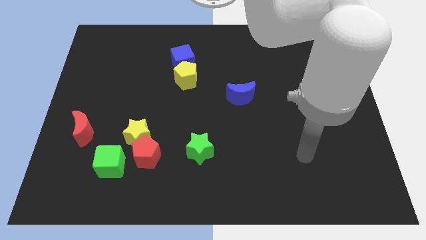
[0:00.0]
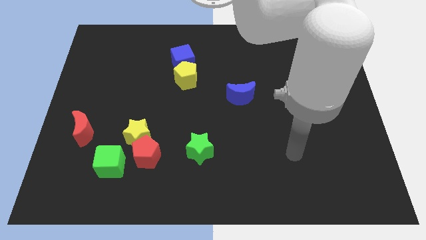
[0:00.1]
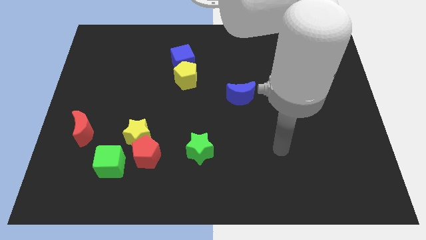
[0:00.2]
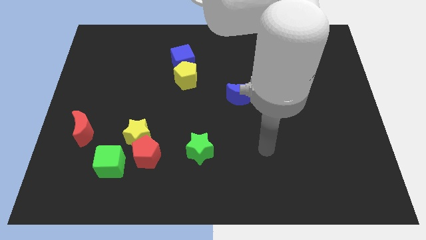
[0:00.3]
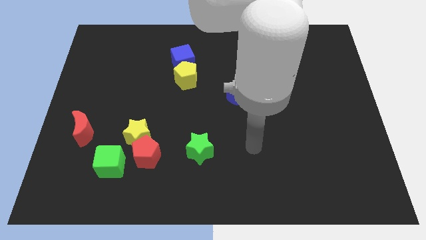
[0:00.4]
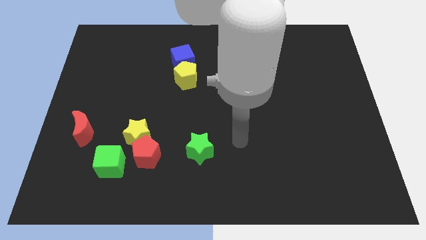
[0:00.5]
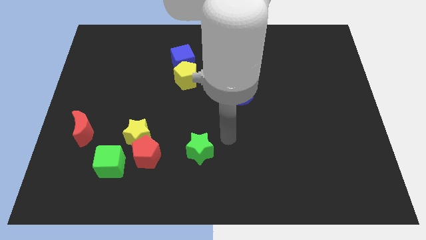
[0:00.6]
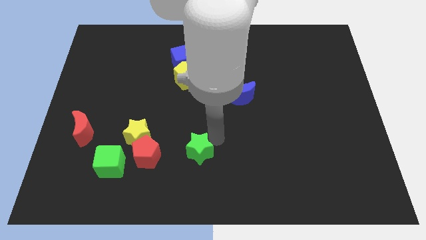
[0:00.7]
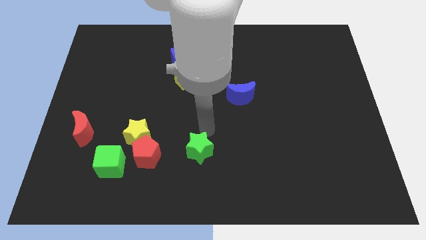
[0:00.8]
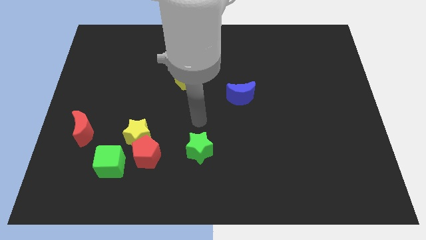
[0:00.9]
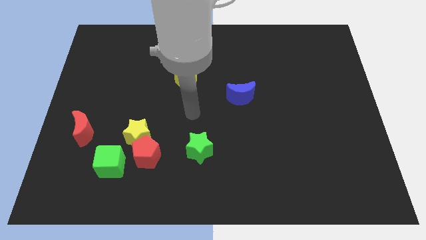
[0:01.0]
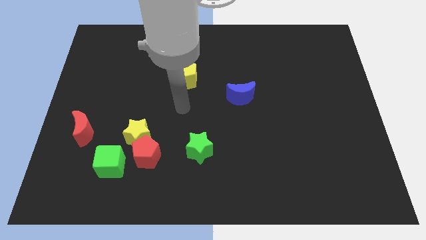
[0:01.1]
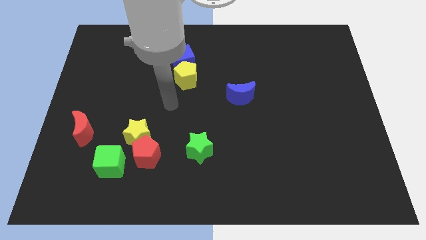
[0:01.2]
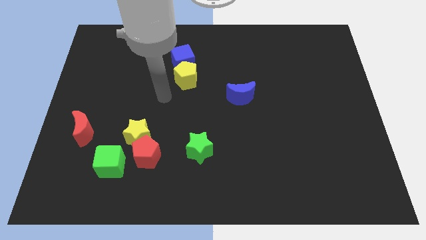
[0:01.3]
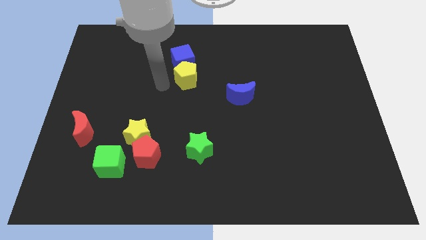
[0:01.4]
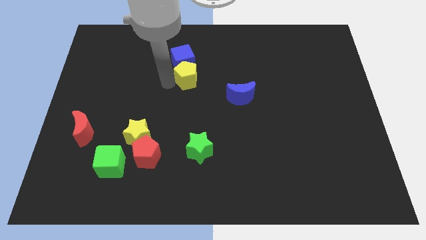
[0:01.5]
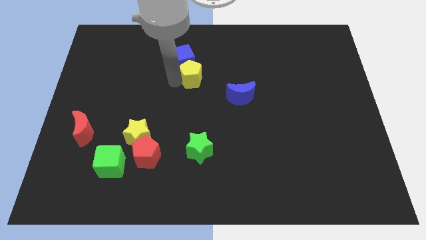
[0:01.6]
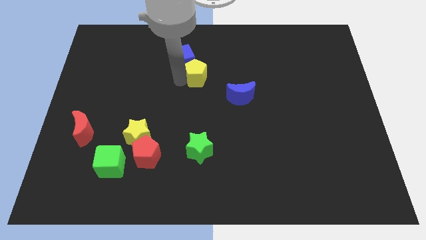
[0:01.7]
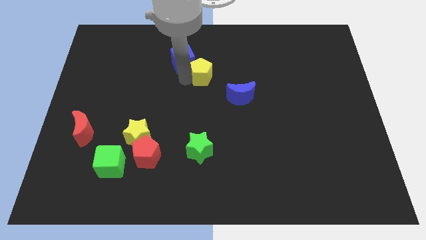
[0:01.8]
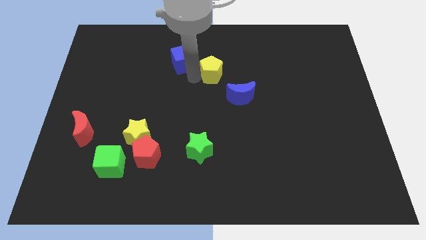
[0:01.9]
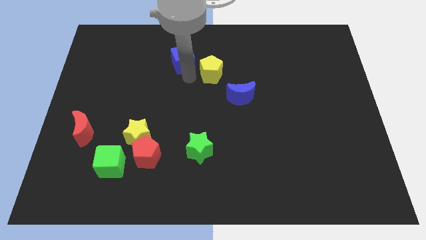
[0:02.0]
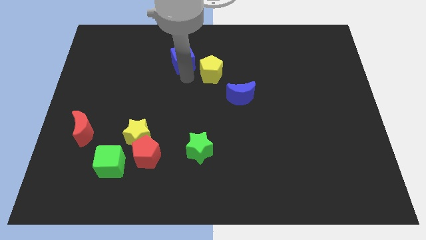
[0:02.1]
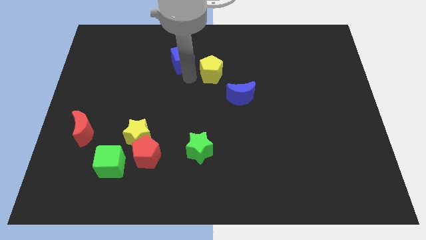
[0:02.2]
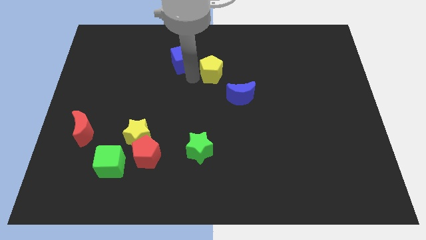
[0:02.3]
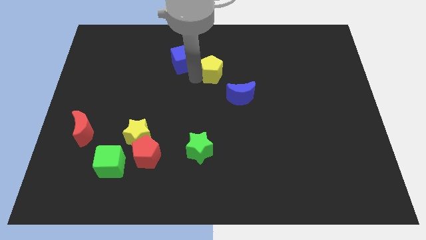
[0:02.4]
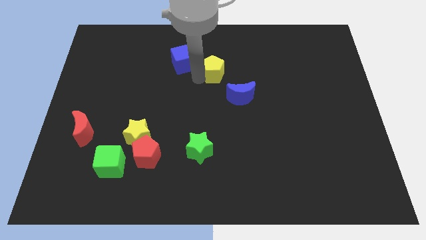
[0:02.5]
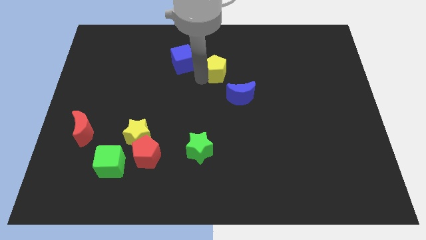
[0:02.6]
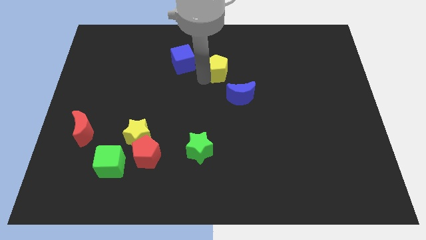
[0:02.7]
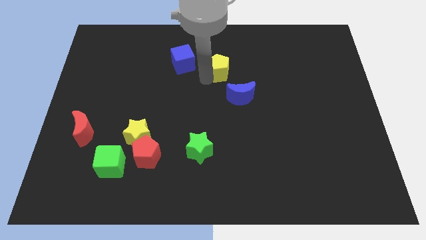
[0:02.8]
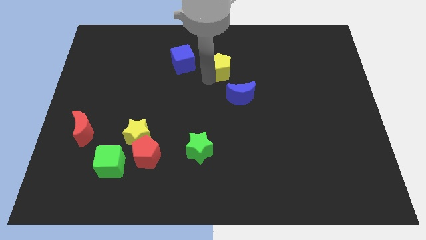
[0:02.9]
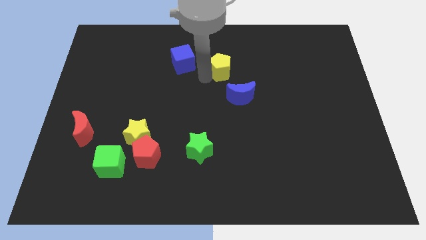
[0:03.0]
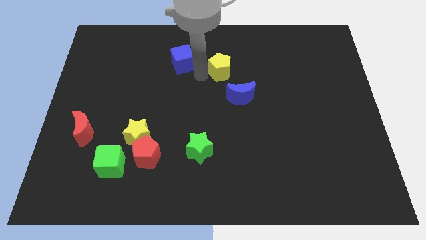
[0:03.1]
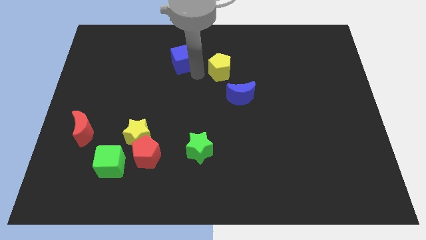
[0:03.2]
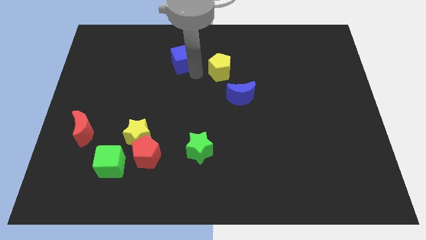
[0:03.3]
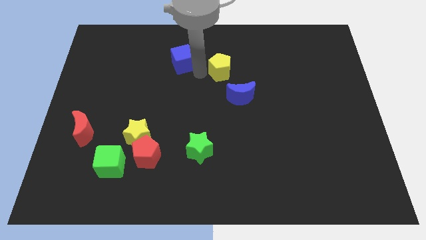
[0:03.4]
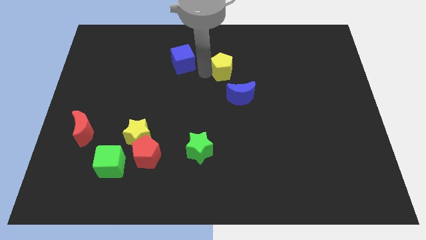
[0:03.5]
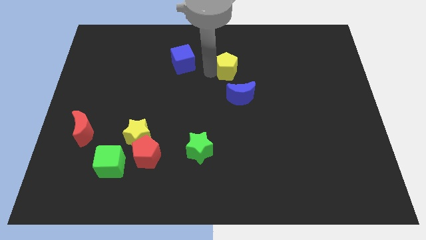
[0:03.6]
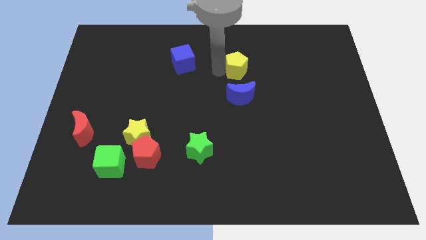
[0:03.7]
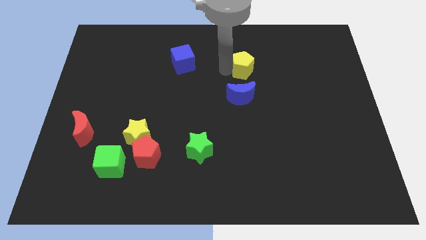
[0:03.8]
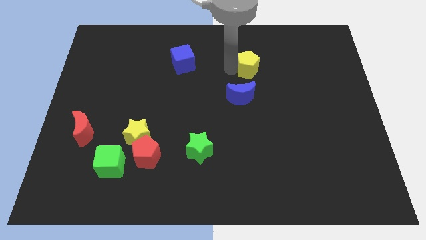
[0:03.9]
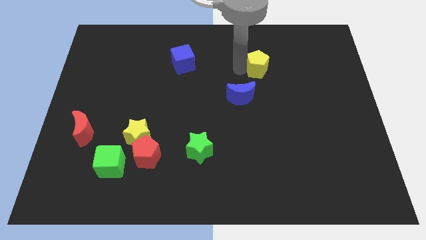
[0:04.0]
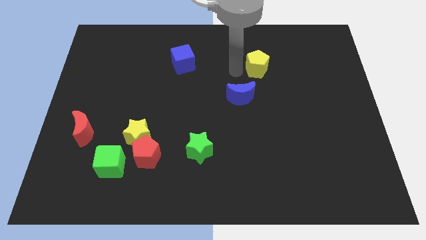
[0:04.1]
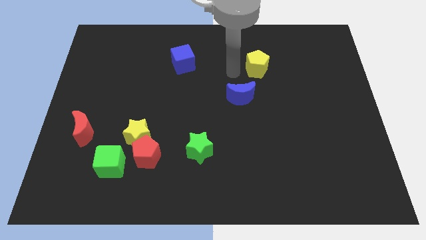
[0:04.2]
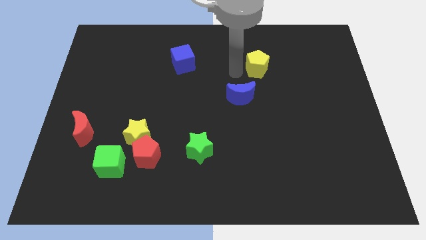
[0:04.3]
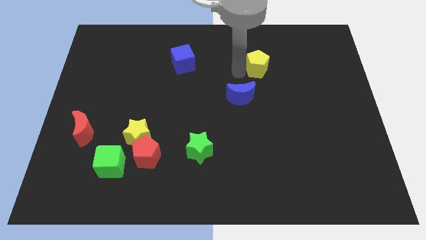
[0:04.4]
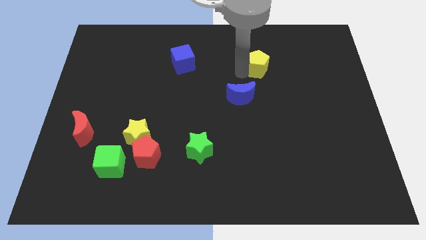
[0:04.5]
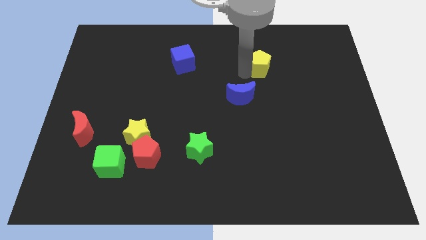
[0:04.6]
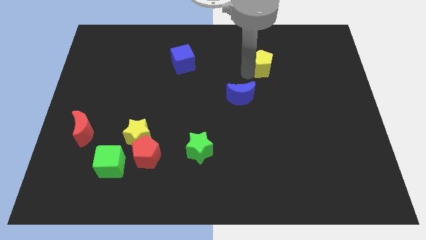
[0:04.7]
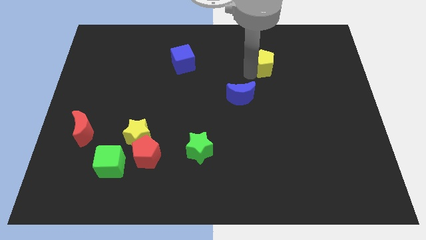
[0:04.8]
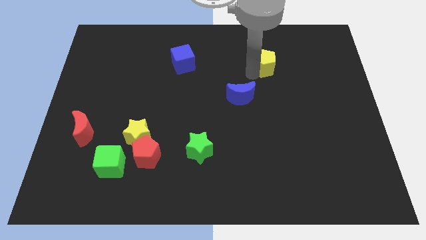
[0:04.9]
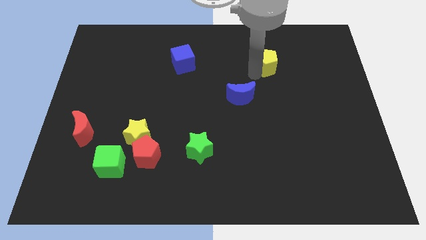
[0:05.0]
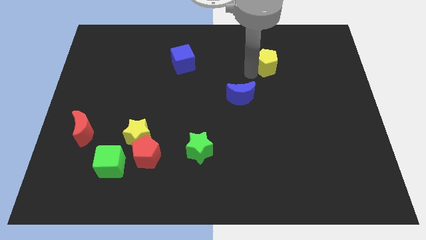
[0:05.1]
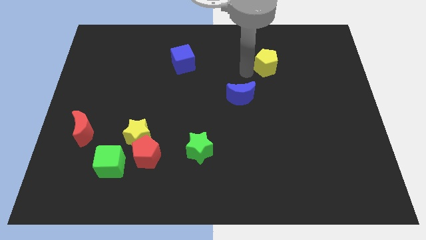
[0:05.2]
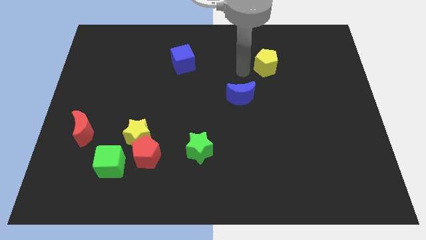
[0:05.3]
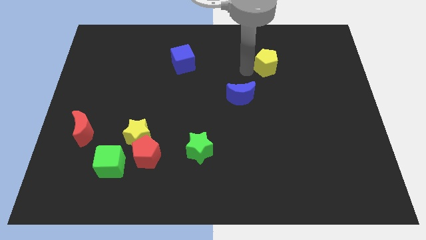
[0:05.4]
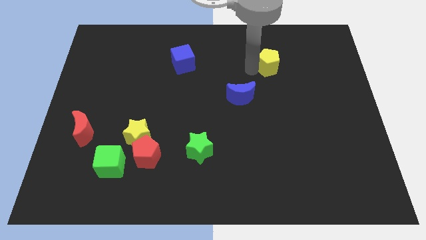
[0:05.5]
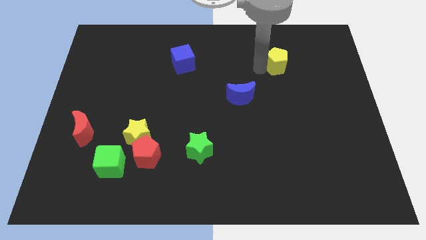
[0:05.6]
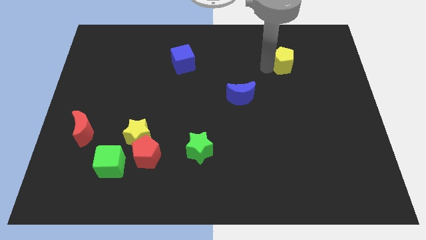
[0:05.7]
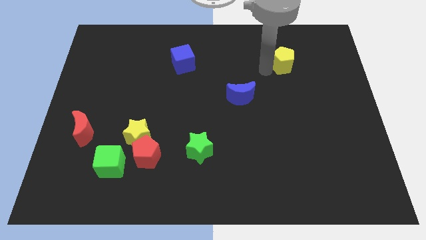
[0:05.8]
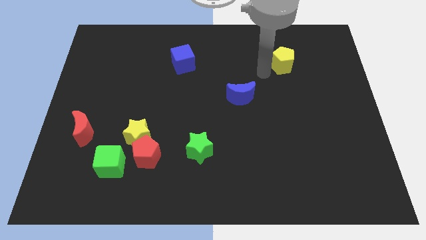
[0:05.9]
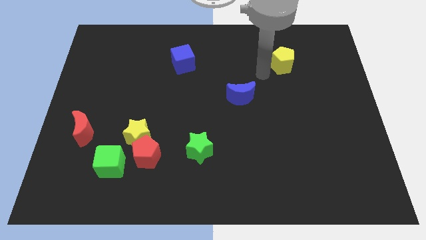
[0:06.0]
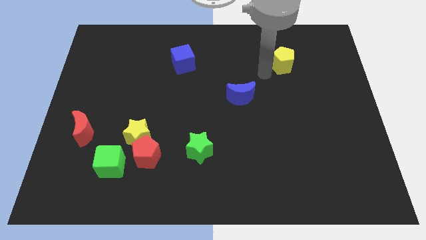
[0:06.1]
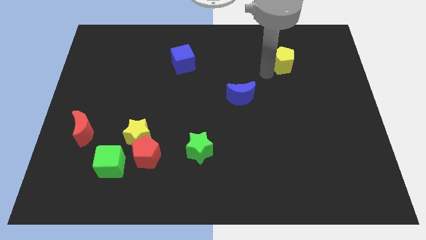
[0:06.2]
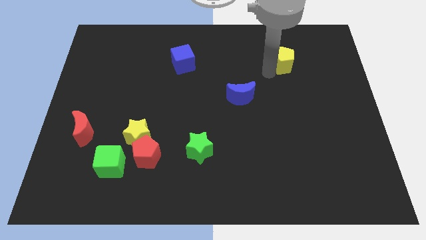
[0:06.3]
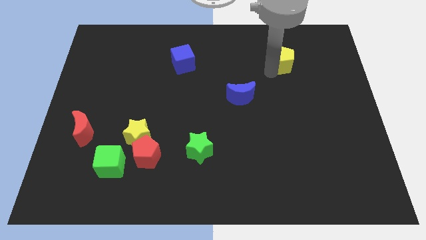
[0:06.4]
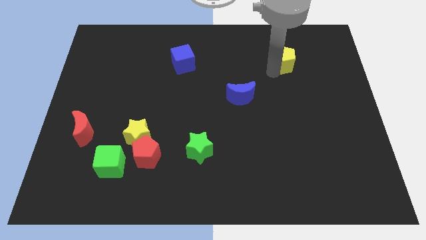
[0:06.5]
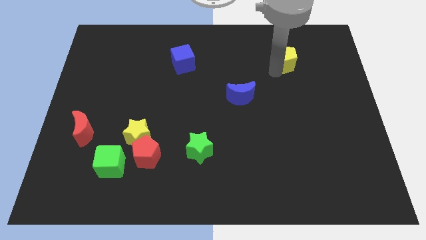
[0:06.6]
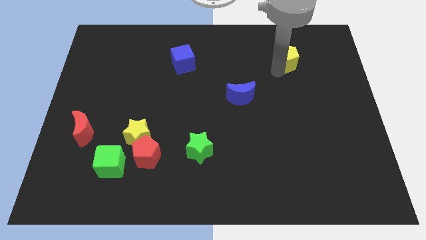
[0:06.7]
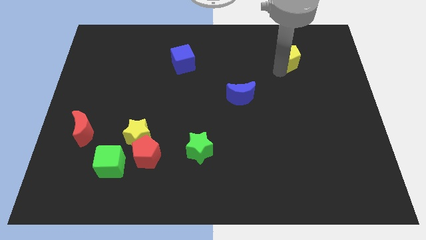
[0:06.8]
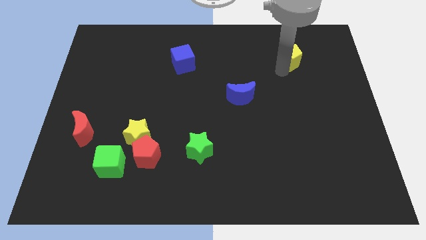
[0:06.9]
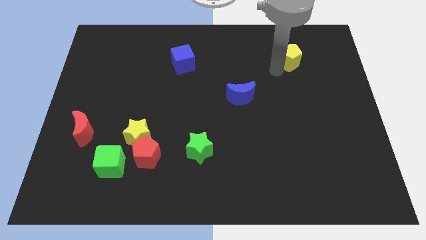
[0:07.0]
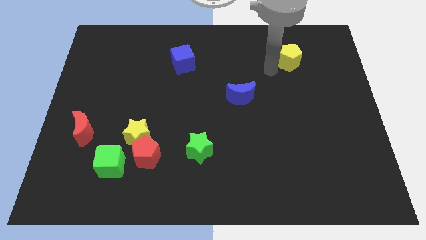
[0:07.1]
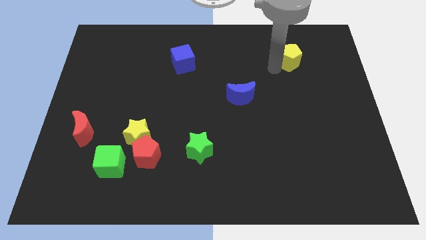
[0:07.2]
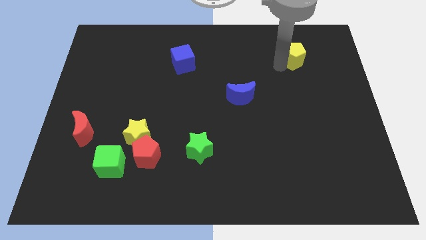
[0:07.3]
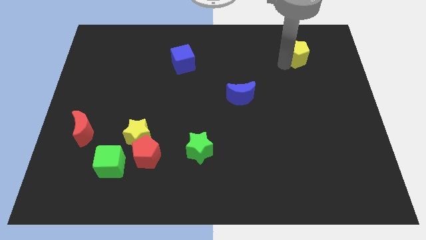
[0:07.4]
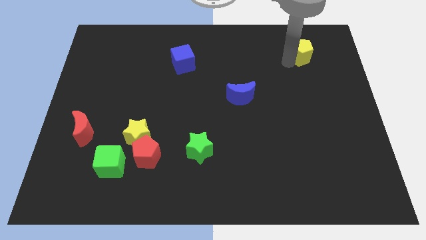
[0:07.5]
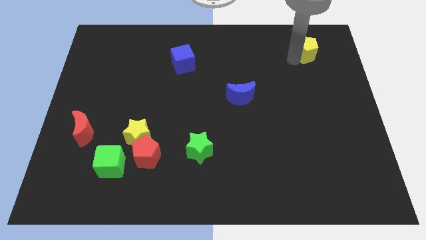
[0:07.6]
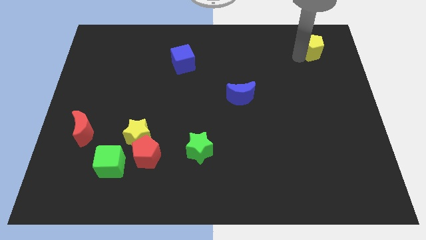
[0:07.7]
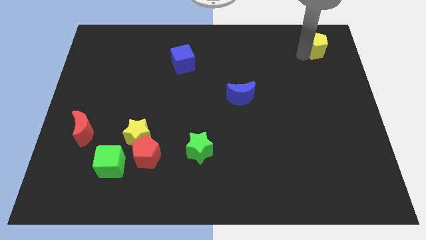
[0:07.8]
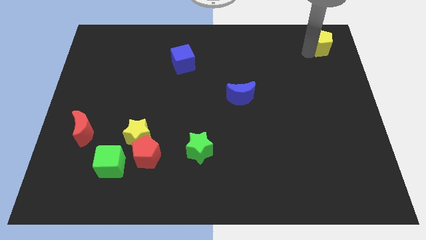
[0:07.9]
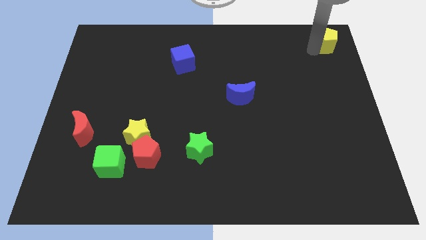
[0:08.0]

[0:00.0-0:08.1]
push the yellow pentagon to the upper right corner
